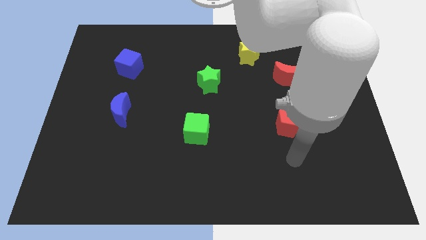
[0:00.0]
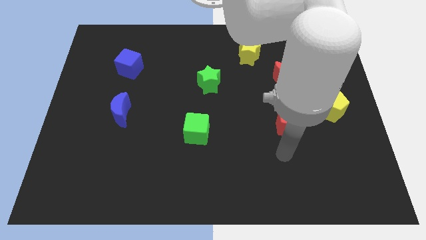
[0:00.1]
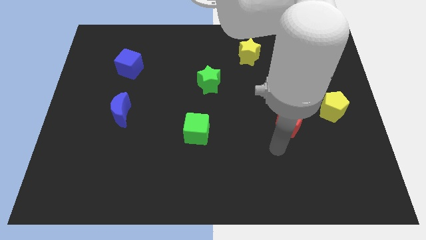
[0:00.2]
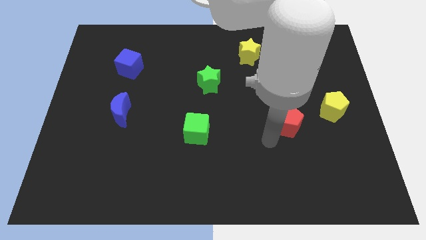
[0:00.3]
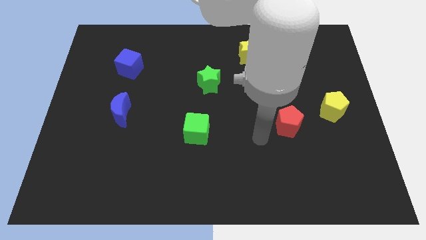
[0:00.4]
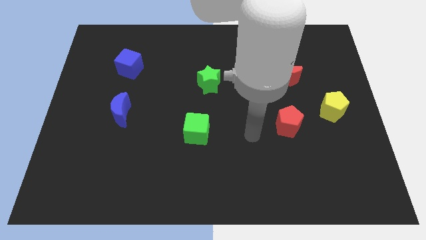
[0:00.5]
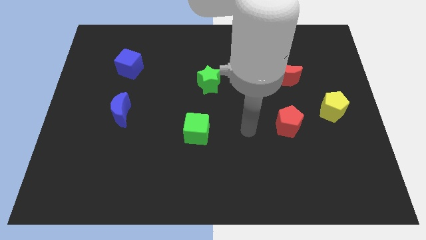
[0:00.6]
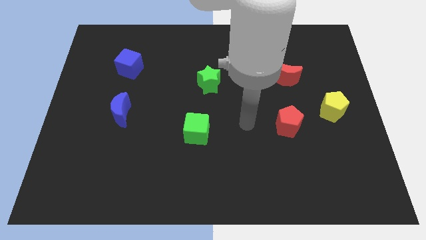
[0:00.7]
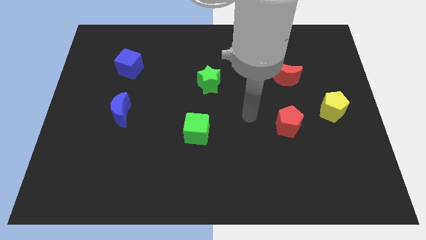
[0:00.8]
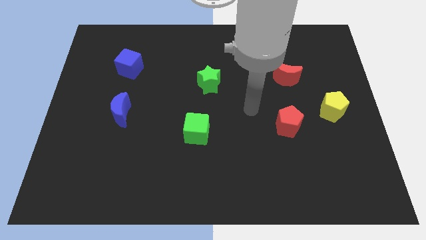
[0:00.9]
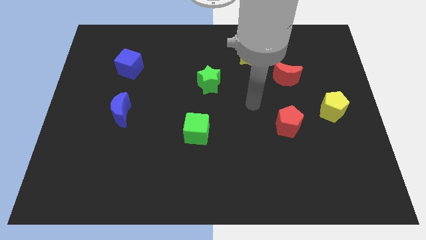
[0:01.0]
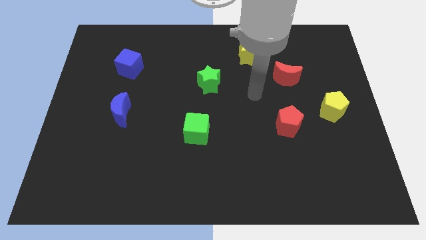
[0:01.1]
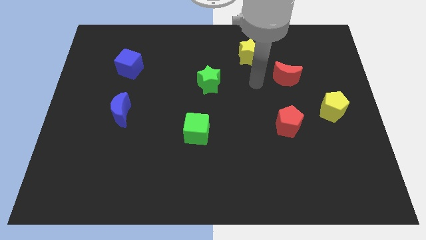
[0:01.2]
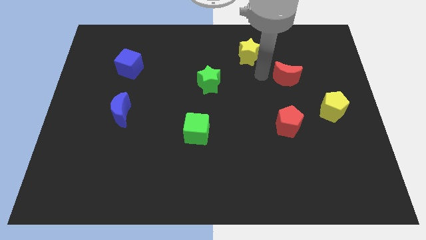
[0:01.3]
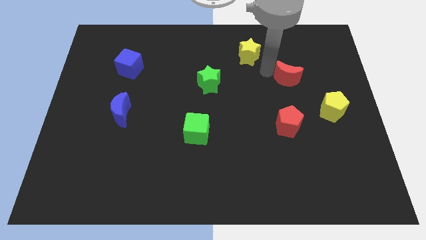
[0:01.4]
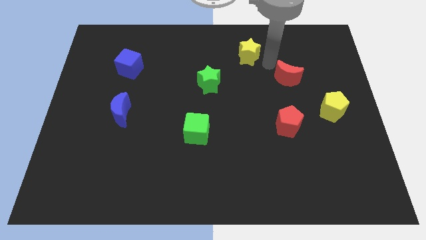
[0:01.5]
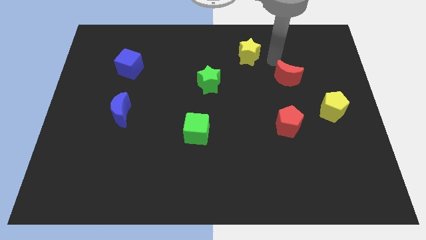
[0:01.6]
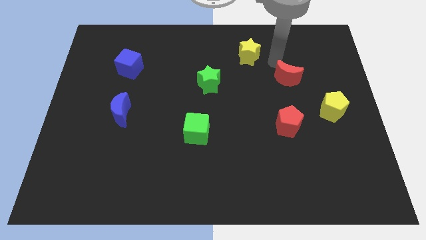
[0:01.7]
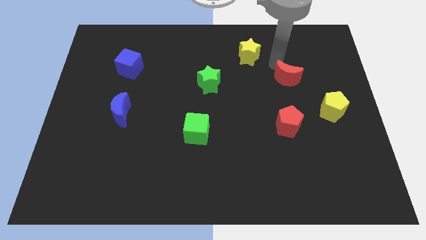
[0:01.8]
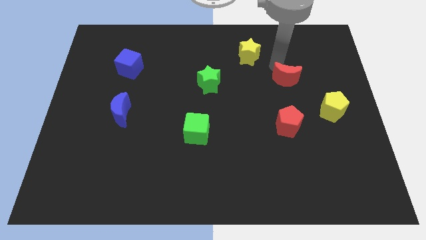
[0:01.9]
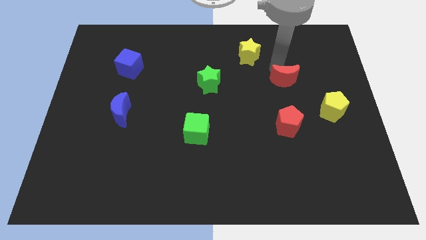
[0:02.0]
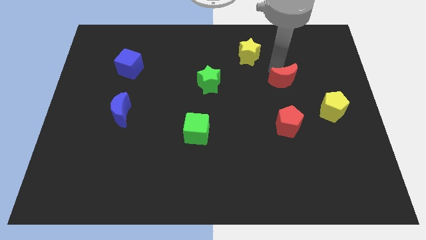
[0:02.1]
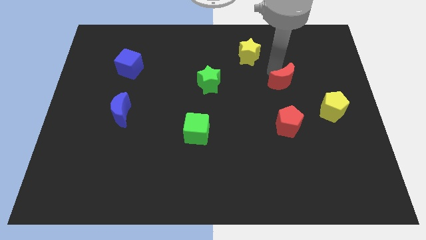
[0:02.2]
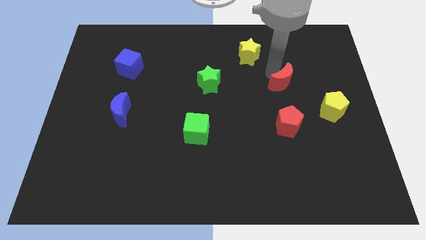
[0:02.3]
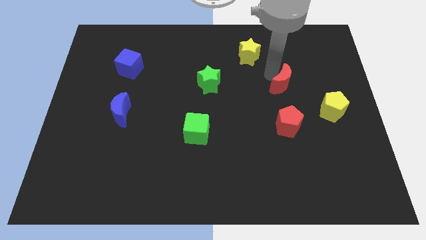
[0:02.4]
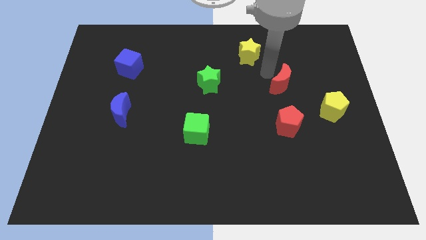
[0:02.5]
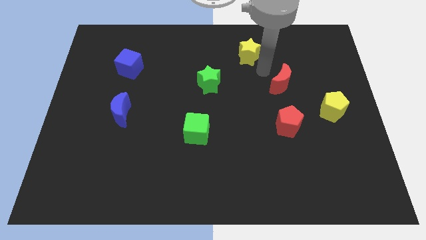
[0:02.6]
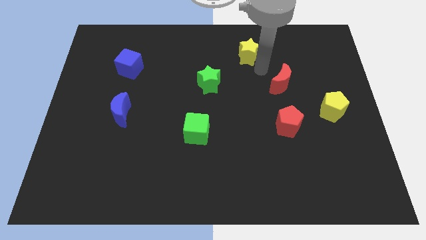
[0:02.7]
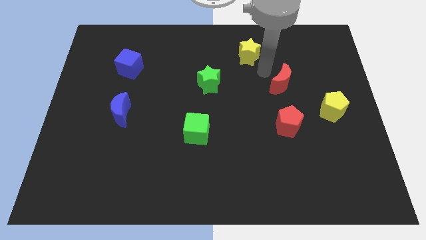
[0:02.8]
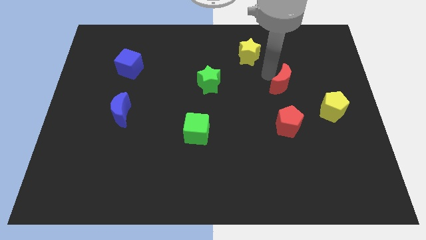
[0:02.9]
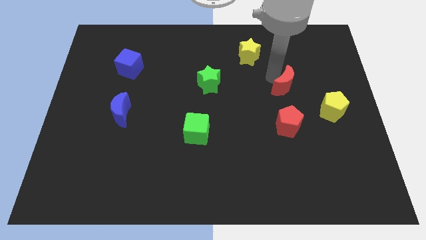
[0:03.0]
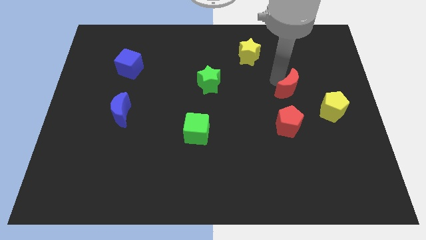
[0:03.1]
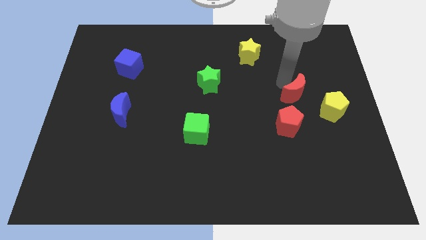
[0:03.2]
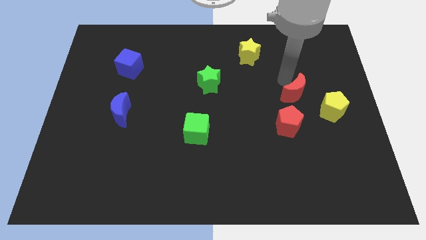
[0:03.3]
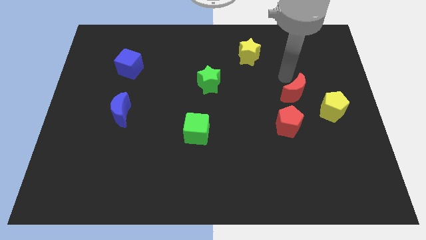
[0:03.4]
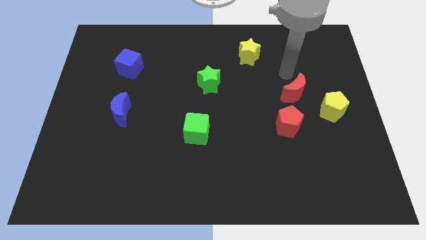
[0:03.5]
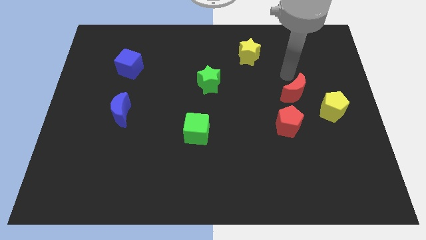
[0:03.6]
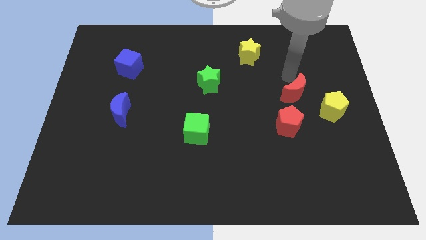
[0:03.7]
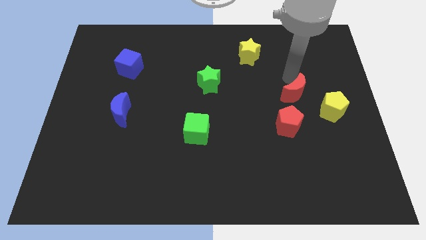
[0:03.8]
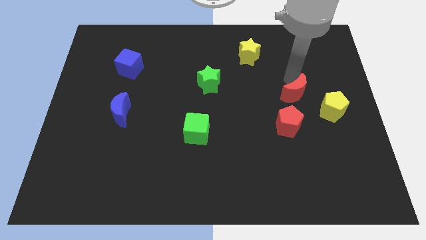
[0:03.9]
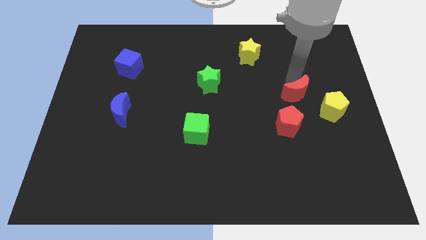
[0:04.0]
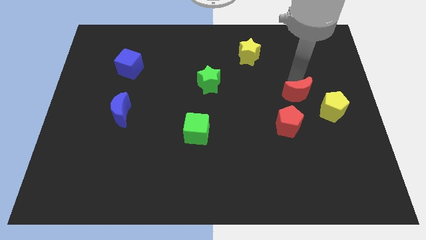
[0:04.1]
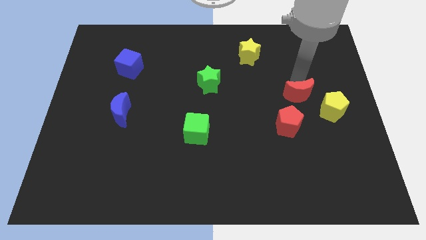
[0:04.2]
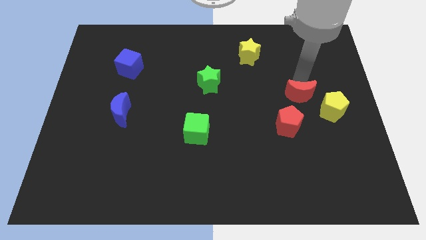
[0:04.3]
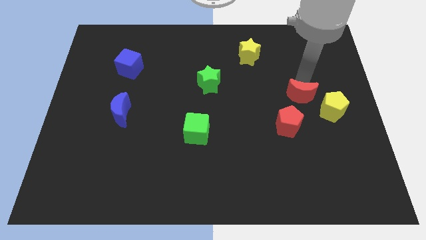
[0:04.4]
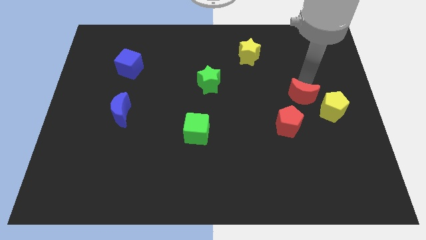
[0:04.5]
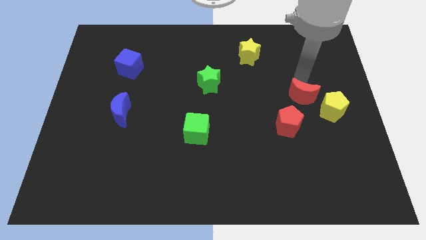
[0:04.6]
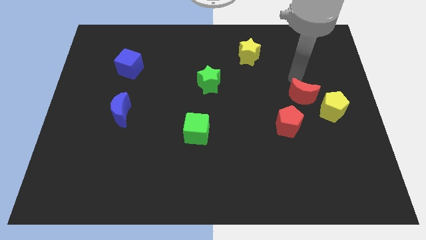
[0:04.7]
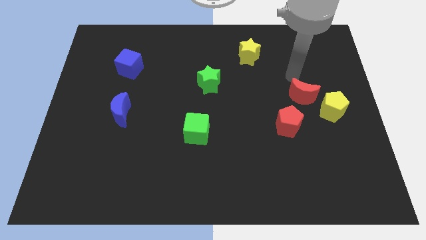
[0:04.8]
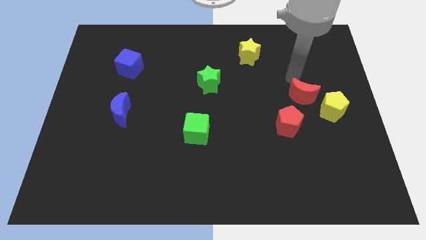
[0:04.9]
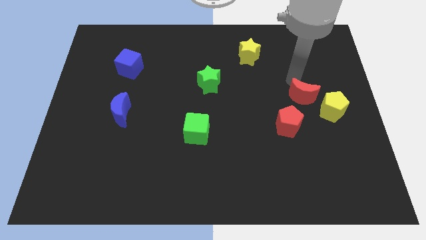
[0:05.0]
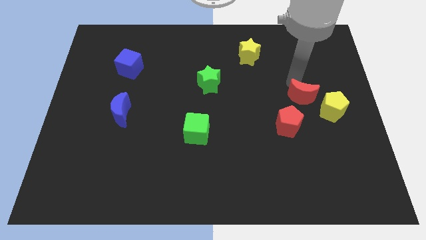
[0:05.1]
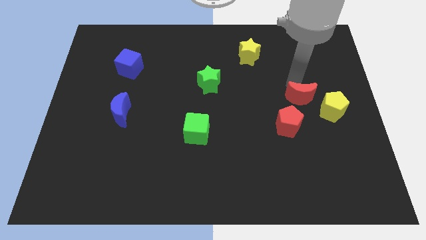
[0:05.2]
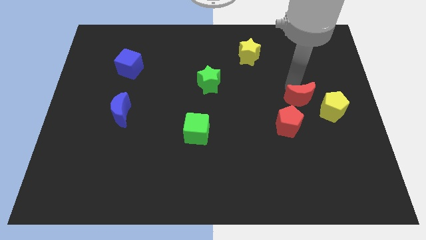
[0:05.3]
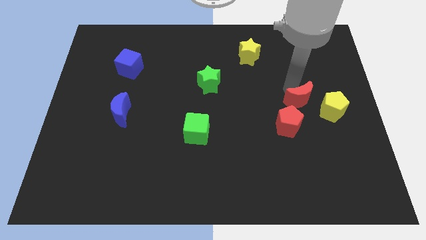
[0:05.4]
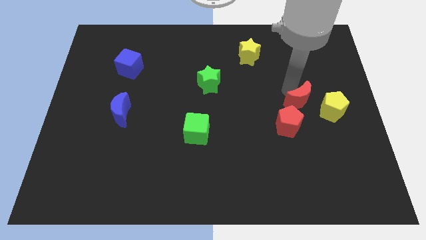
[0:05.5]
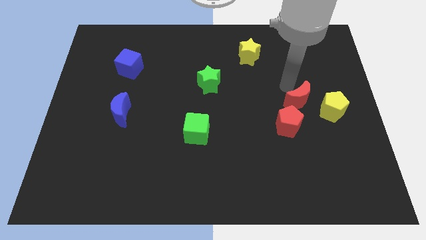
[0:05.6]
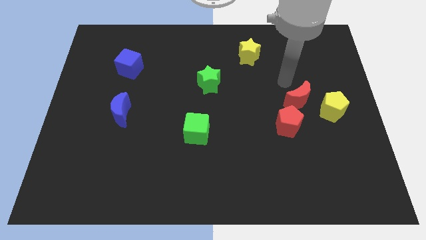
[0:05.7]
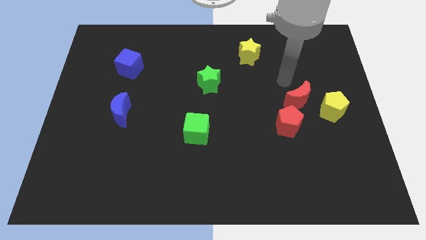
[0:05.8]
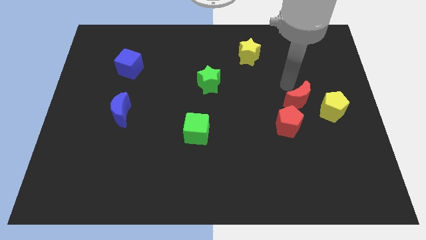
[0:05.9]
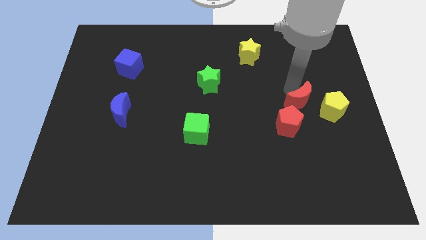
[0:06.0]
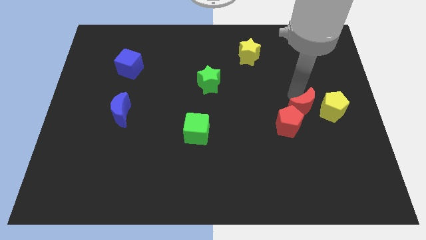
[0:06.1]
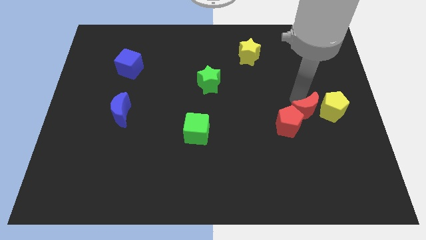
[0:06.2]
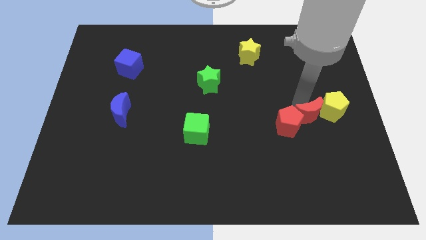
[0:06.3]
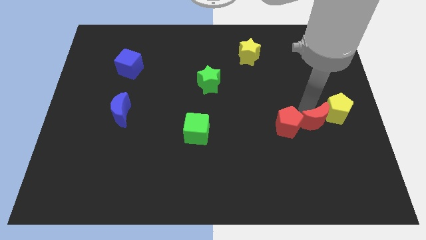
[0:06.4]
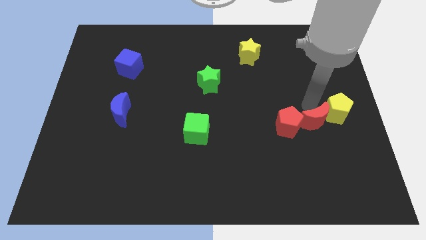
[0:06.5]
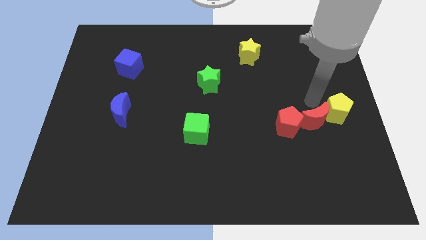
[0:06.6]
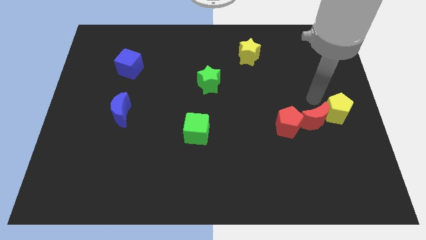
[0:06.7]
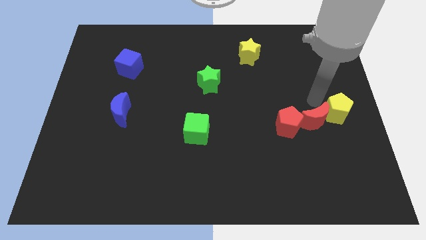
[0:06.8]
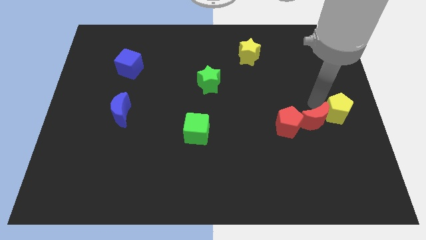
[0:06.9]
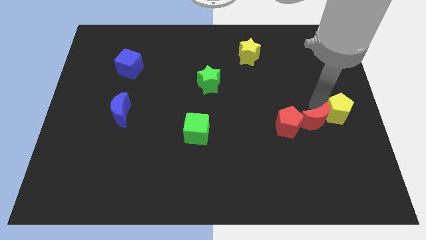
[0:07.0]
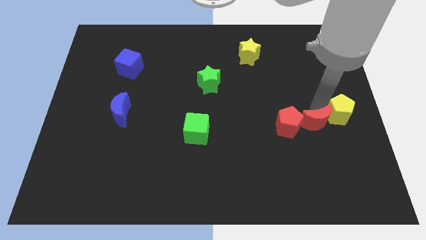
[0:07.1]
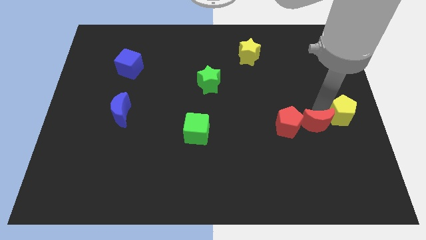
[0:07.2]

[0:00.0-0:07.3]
move the red moon diagonally down and to the right of the red pentagon
